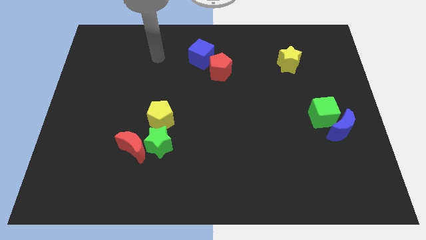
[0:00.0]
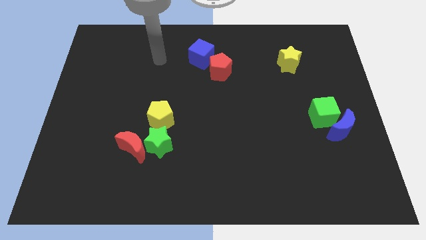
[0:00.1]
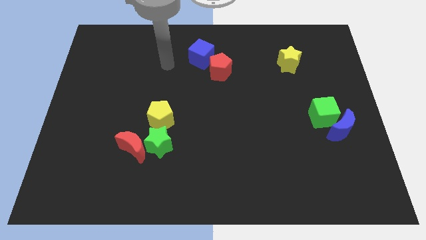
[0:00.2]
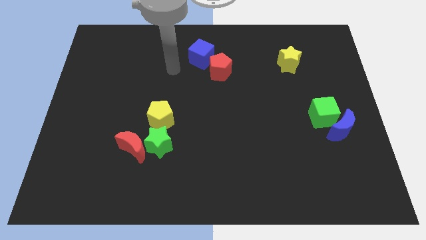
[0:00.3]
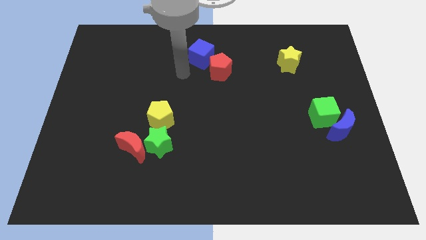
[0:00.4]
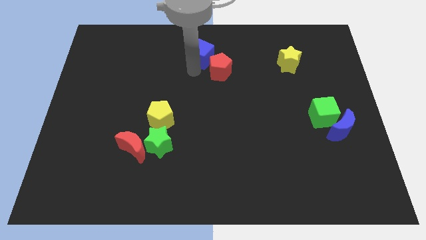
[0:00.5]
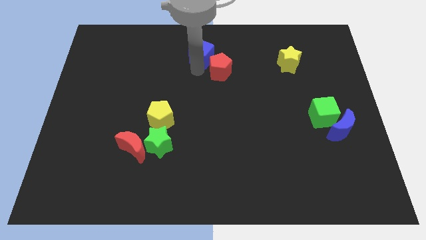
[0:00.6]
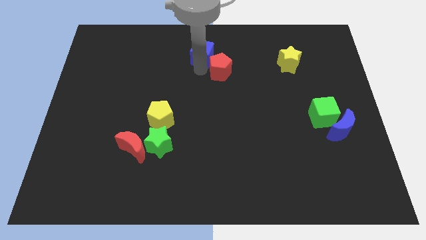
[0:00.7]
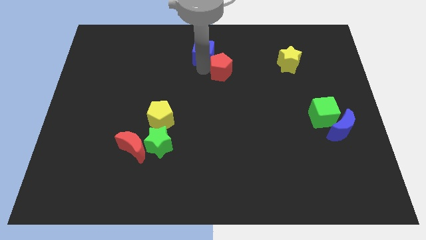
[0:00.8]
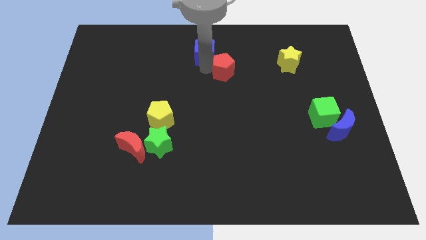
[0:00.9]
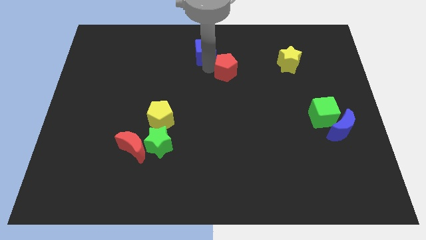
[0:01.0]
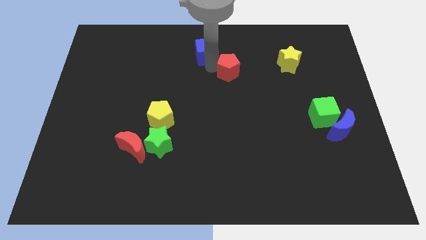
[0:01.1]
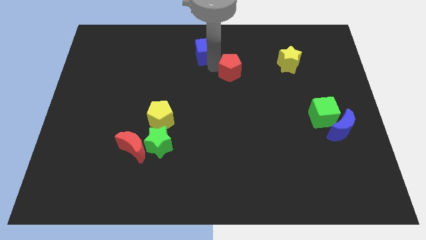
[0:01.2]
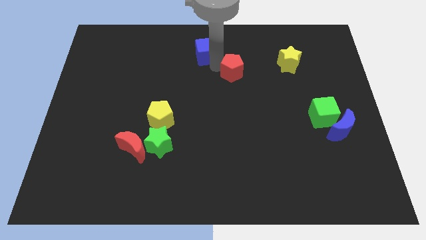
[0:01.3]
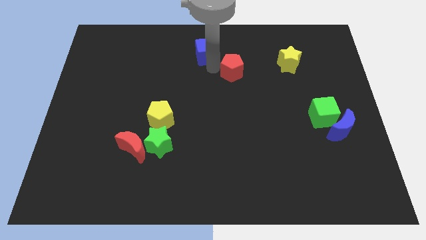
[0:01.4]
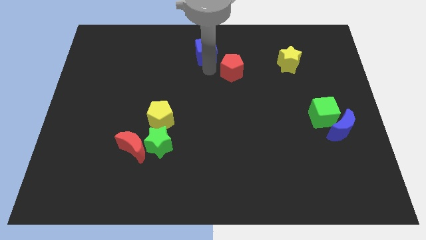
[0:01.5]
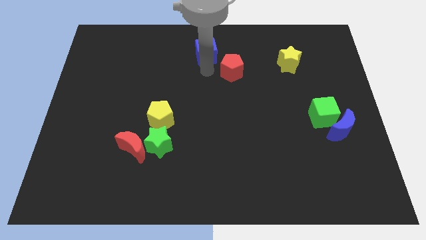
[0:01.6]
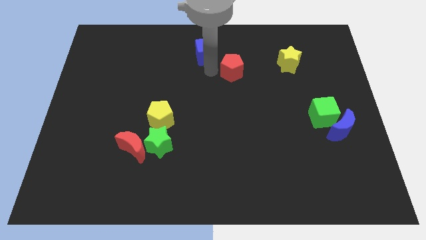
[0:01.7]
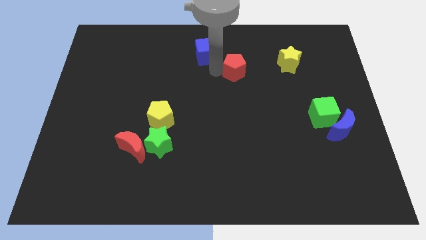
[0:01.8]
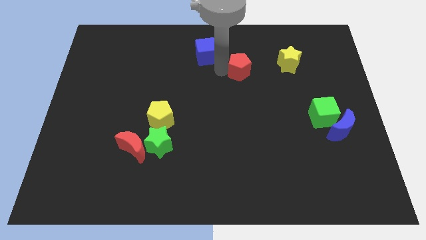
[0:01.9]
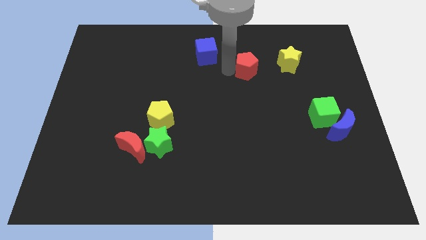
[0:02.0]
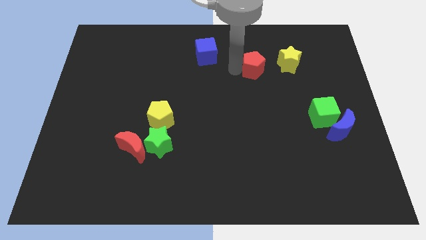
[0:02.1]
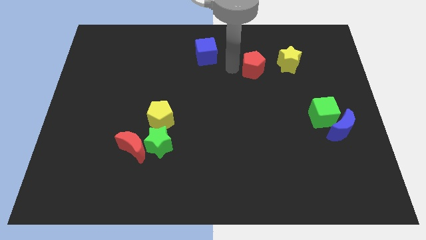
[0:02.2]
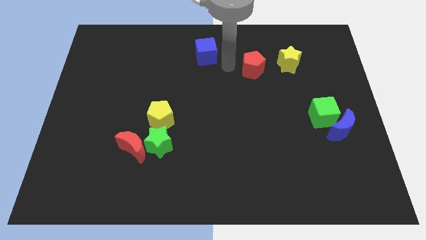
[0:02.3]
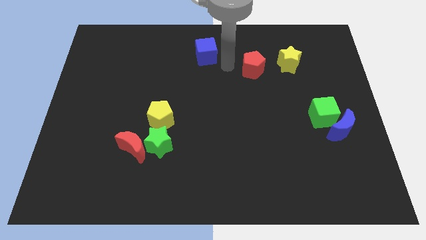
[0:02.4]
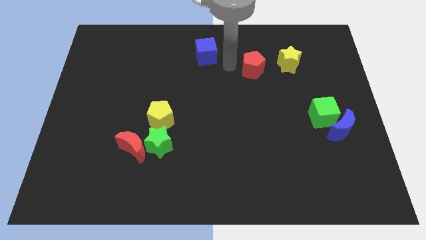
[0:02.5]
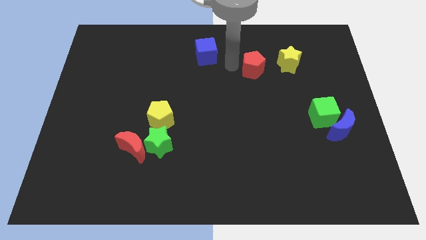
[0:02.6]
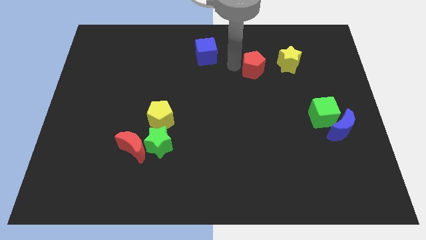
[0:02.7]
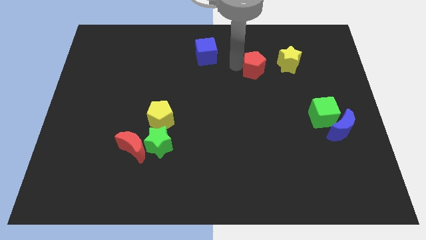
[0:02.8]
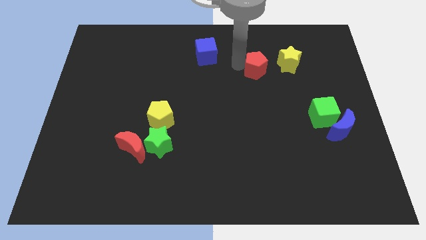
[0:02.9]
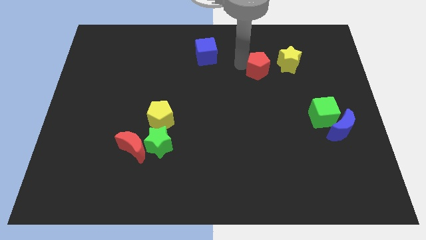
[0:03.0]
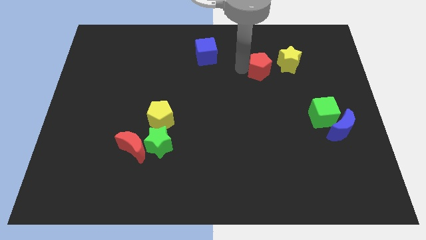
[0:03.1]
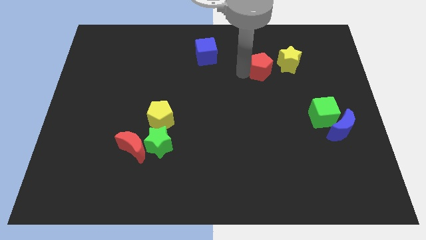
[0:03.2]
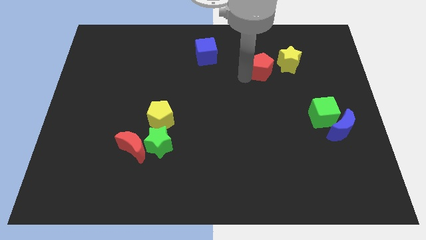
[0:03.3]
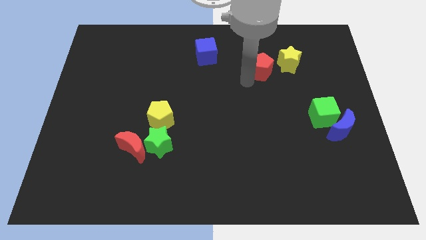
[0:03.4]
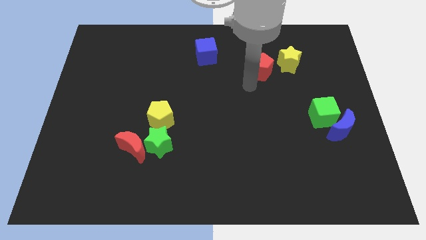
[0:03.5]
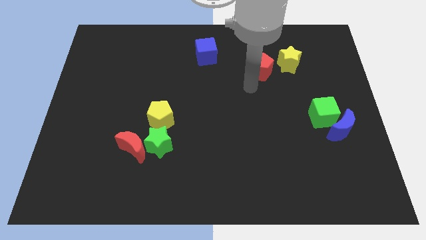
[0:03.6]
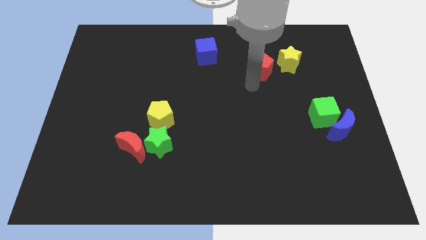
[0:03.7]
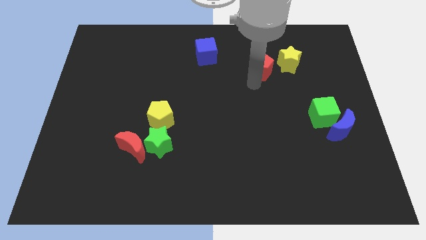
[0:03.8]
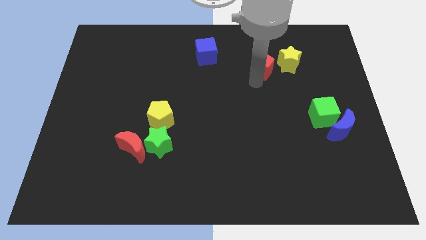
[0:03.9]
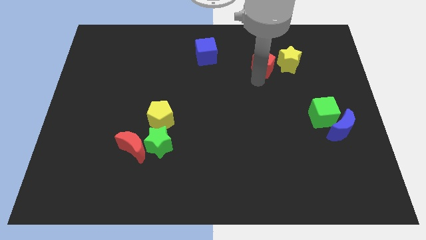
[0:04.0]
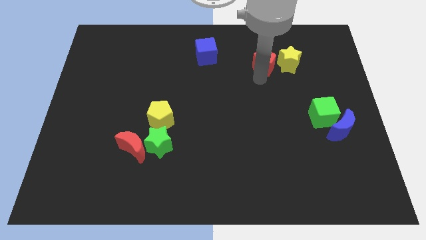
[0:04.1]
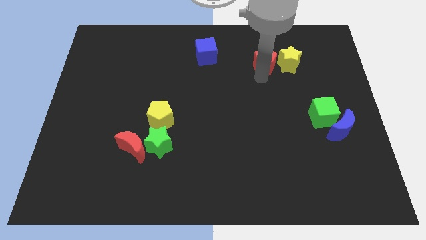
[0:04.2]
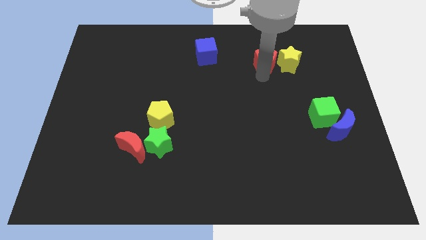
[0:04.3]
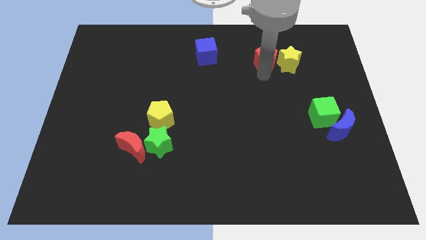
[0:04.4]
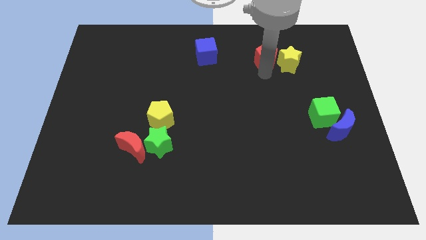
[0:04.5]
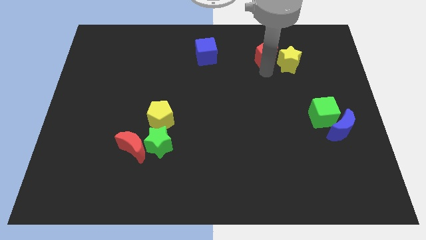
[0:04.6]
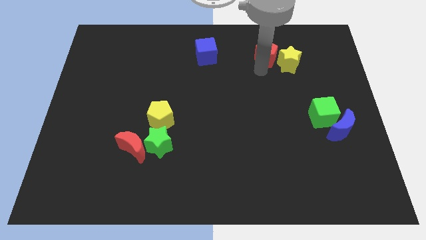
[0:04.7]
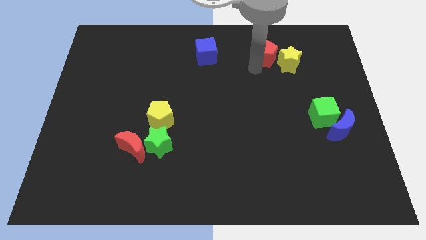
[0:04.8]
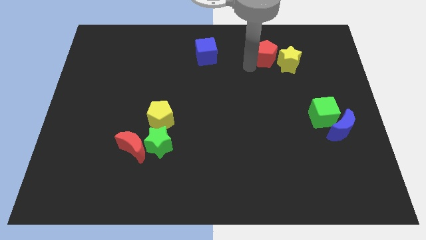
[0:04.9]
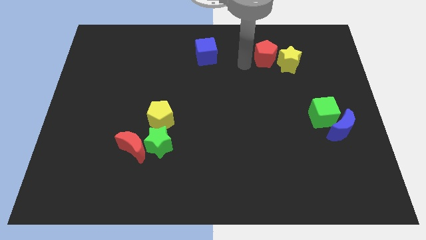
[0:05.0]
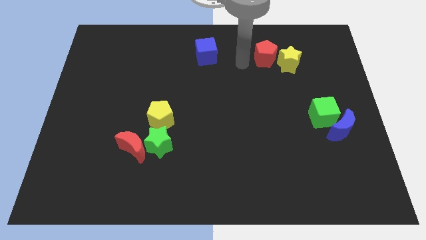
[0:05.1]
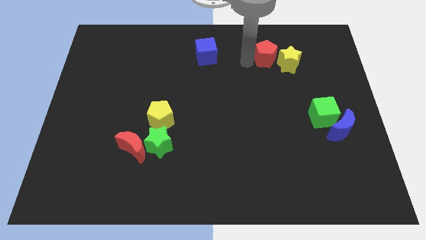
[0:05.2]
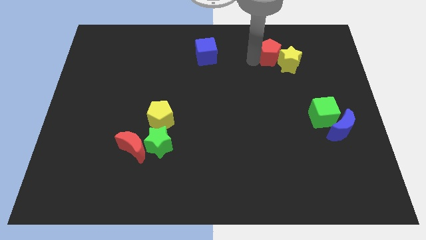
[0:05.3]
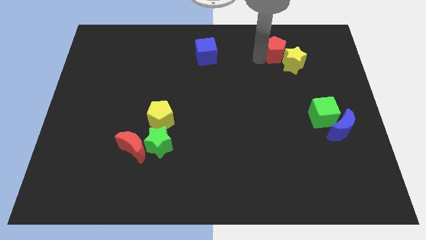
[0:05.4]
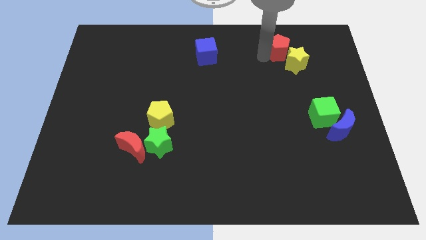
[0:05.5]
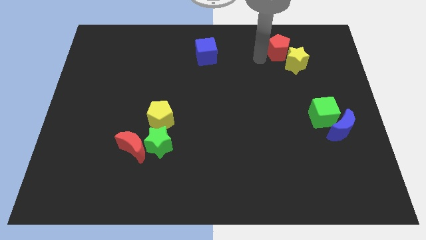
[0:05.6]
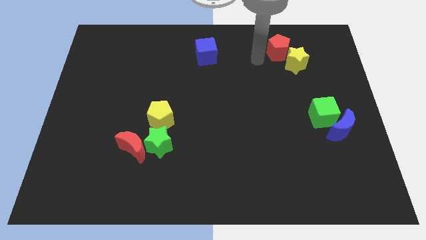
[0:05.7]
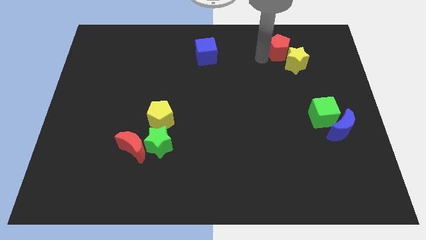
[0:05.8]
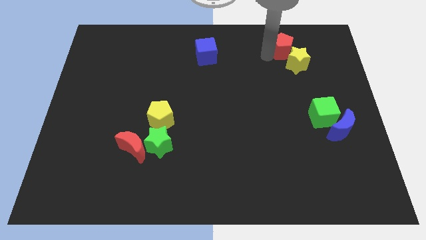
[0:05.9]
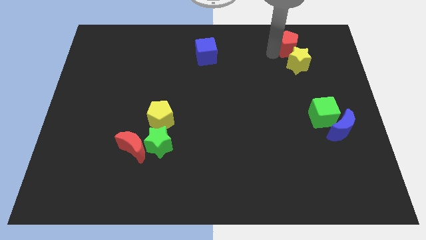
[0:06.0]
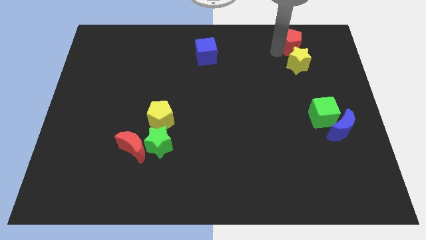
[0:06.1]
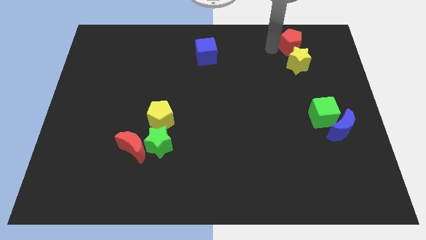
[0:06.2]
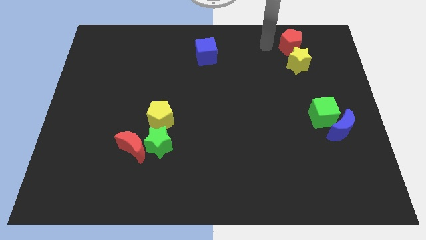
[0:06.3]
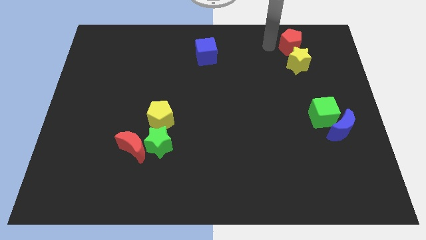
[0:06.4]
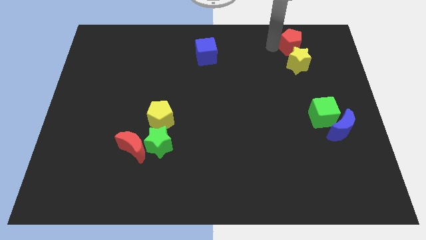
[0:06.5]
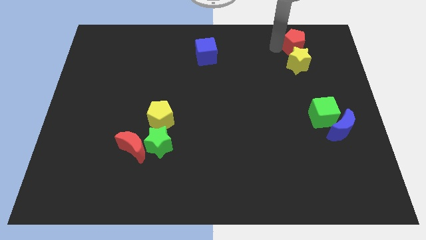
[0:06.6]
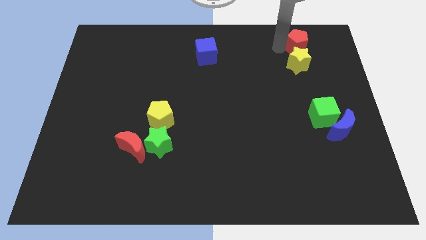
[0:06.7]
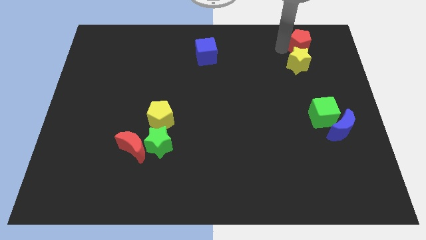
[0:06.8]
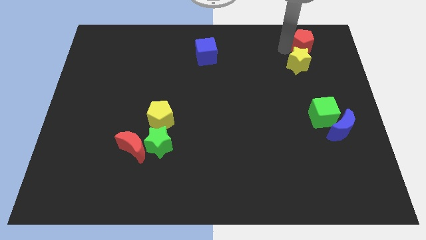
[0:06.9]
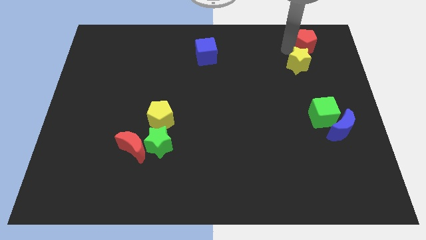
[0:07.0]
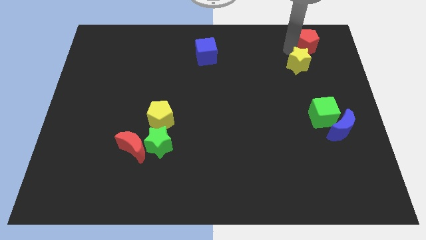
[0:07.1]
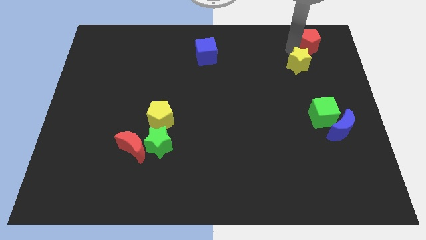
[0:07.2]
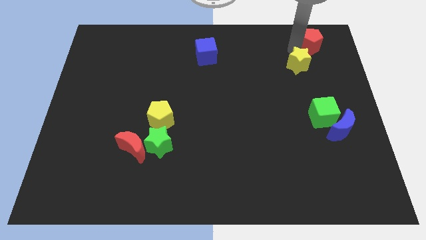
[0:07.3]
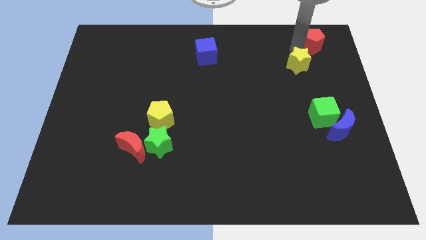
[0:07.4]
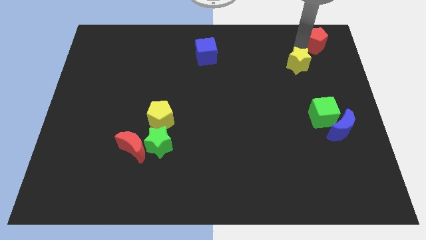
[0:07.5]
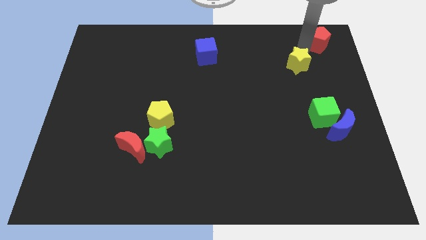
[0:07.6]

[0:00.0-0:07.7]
slide the red pentagon to the top right of the board
